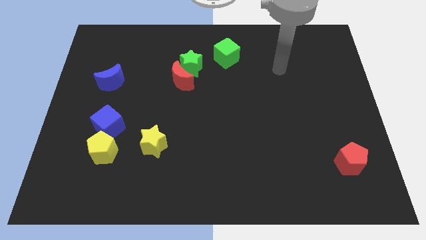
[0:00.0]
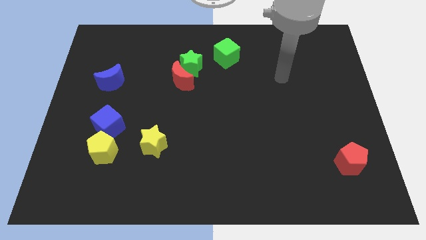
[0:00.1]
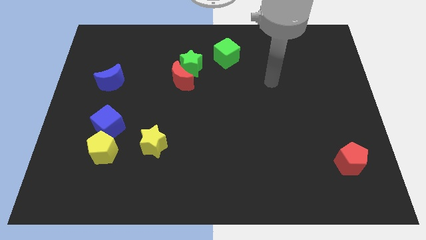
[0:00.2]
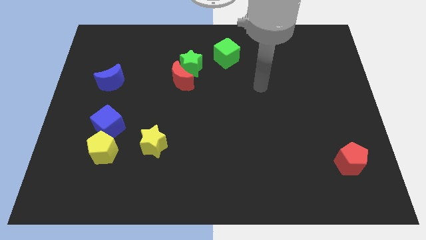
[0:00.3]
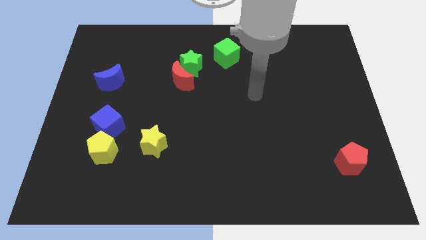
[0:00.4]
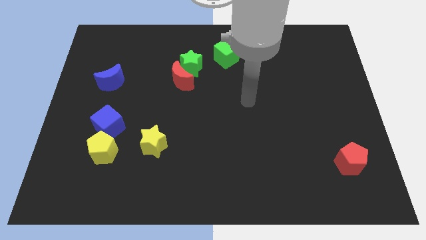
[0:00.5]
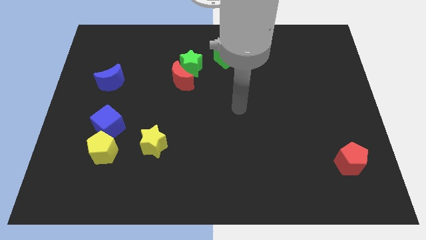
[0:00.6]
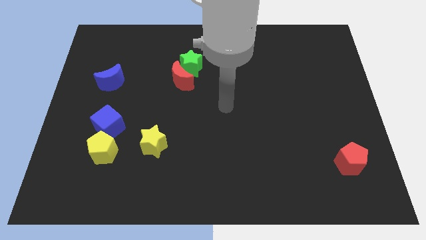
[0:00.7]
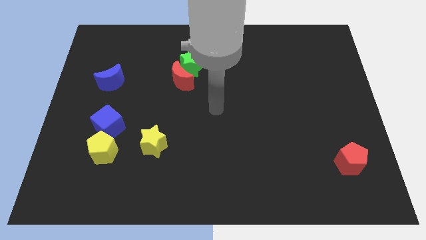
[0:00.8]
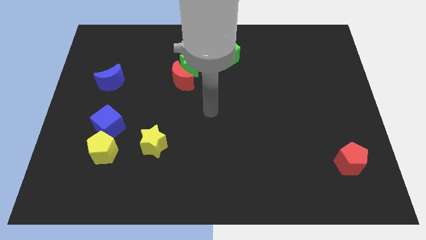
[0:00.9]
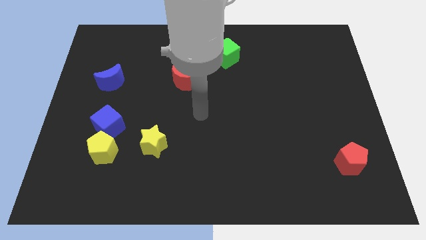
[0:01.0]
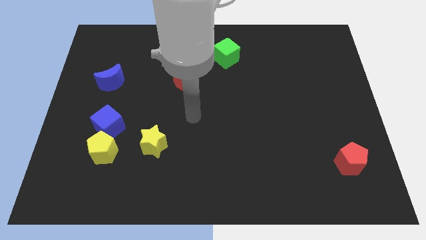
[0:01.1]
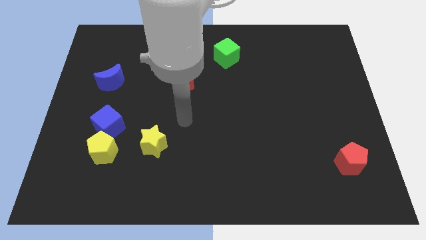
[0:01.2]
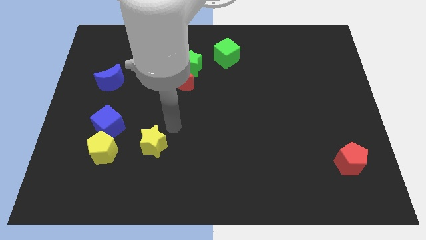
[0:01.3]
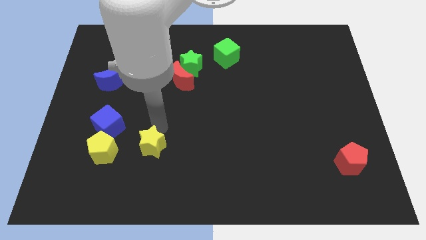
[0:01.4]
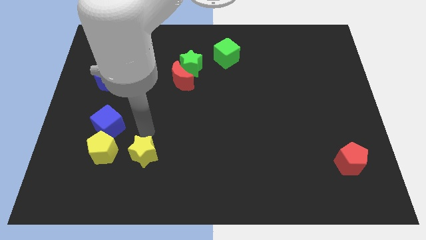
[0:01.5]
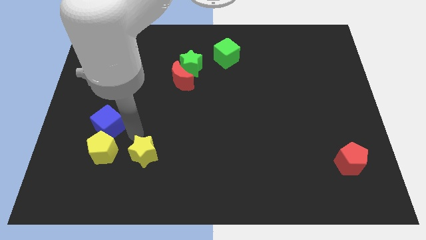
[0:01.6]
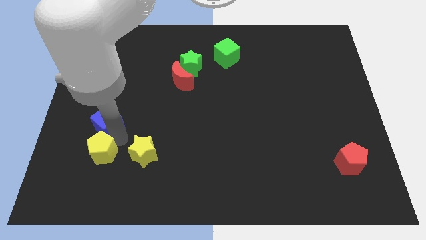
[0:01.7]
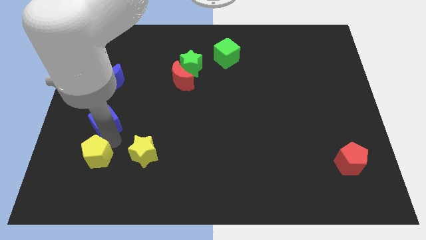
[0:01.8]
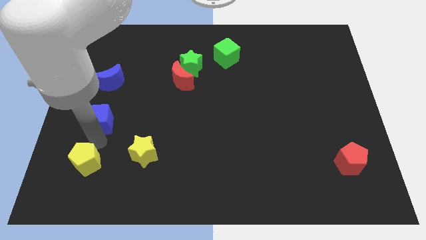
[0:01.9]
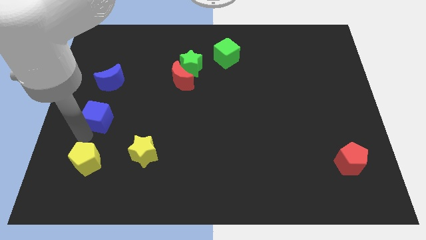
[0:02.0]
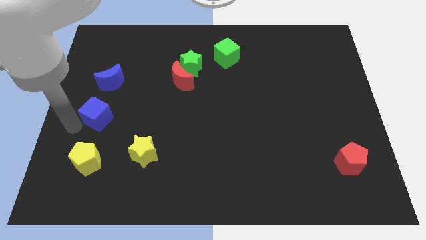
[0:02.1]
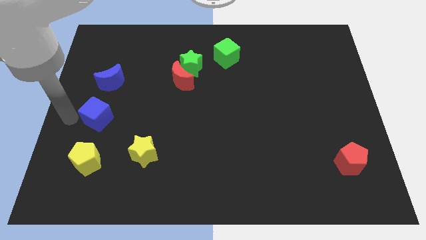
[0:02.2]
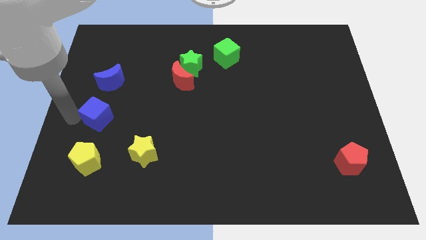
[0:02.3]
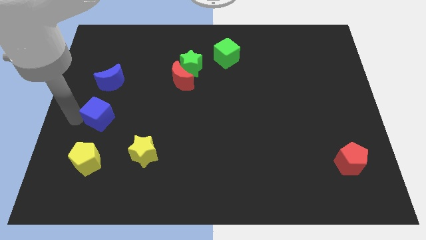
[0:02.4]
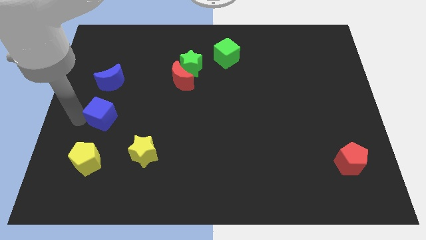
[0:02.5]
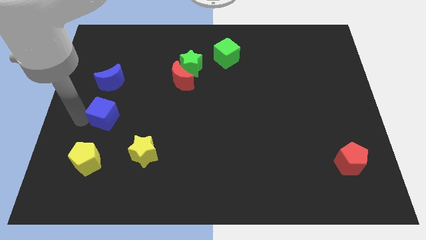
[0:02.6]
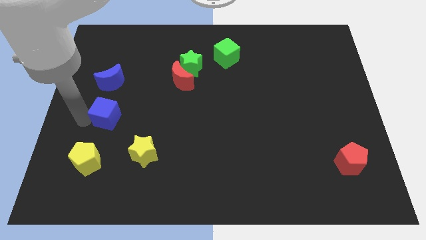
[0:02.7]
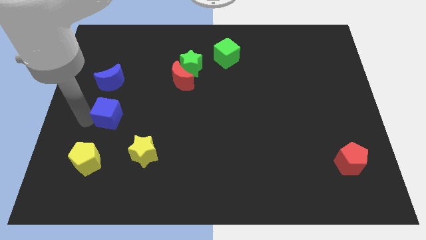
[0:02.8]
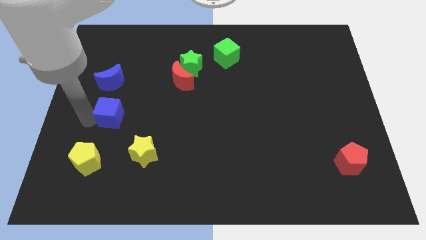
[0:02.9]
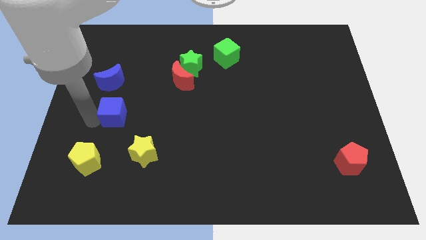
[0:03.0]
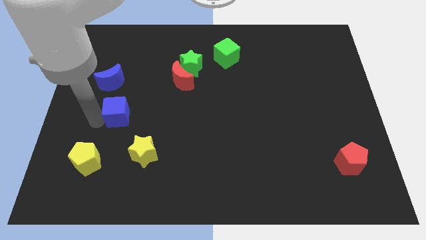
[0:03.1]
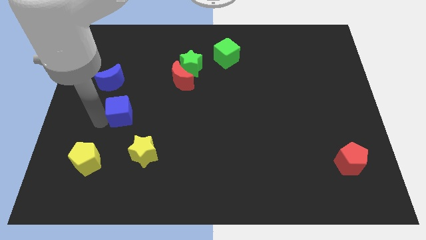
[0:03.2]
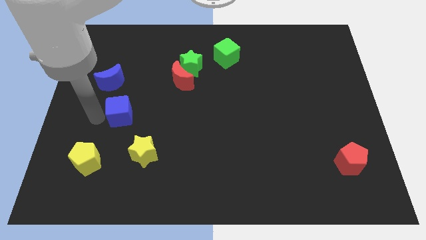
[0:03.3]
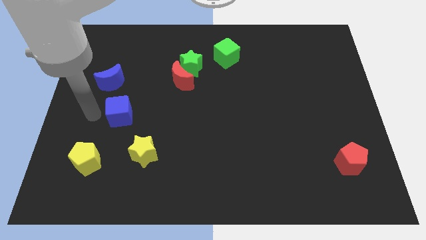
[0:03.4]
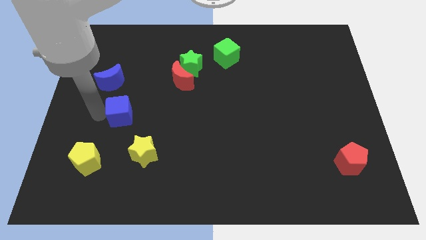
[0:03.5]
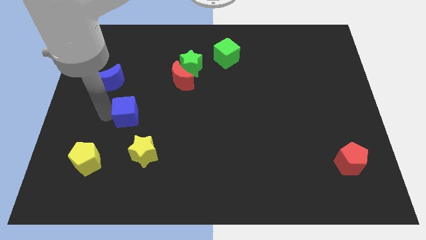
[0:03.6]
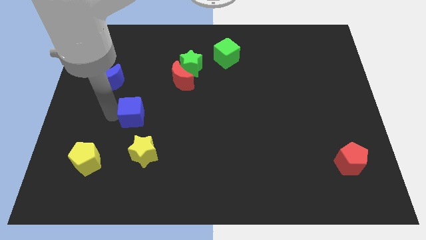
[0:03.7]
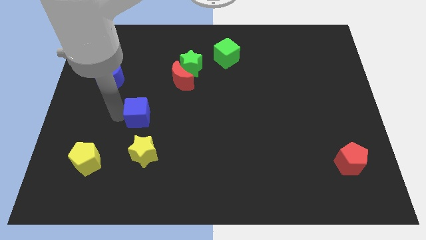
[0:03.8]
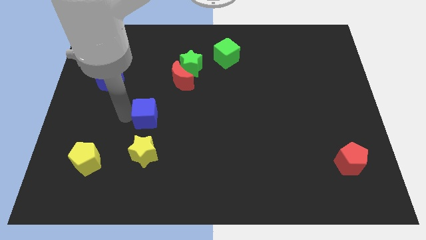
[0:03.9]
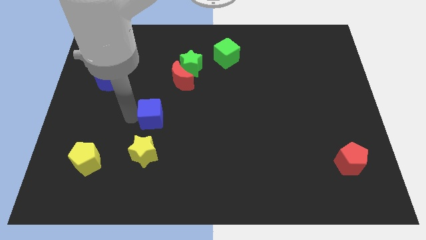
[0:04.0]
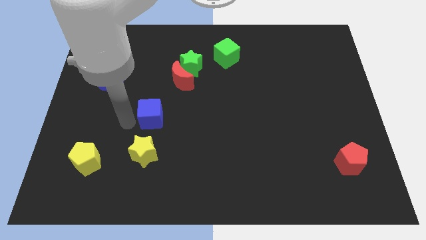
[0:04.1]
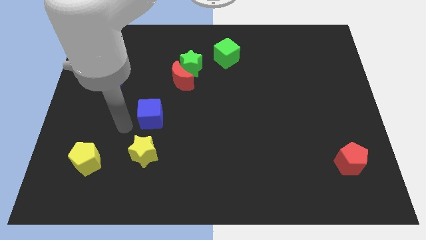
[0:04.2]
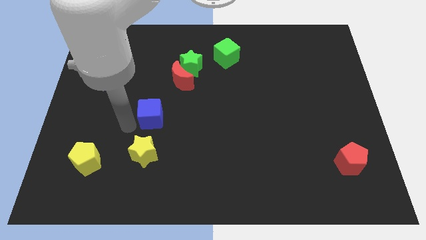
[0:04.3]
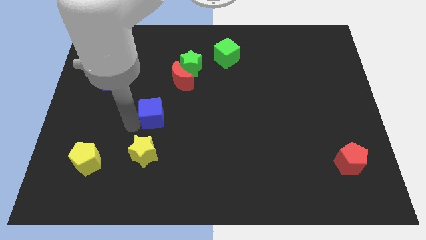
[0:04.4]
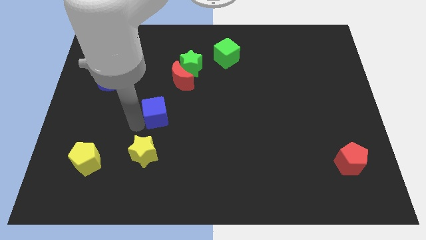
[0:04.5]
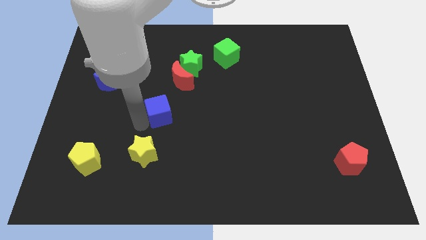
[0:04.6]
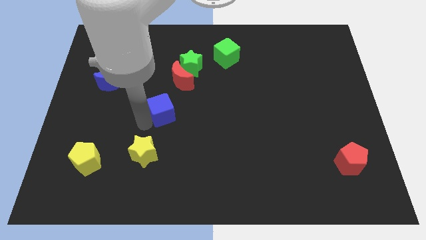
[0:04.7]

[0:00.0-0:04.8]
slide the blue cube to the middle of the board

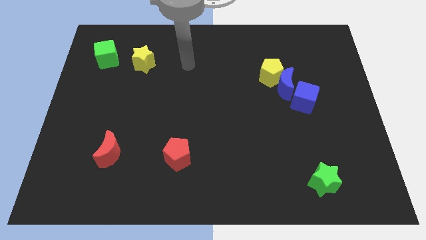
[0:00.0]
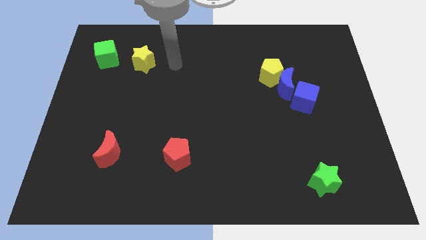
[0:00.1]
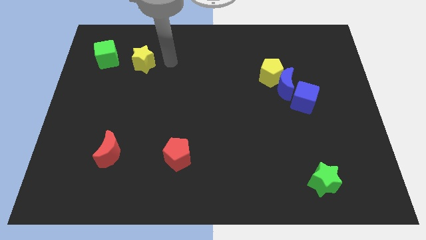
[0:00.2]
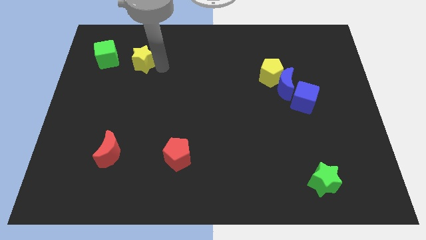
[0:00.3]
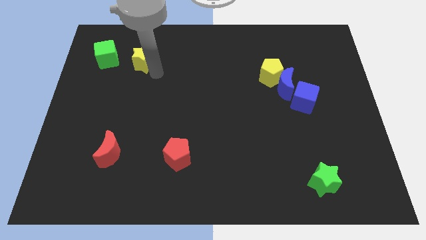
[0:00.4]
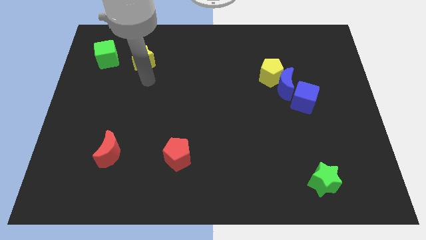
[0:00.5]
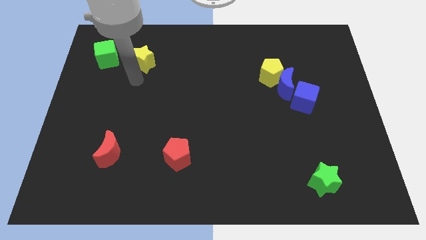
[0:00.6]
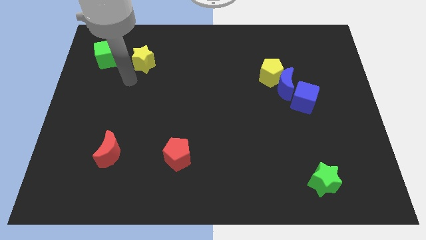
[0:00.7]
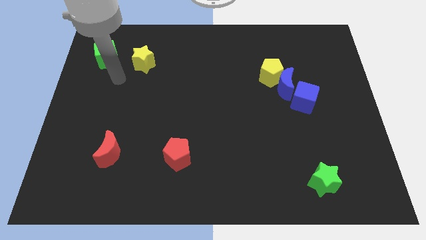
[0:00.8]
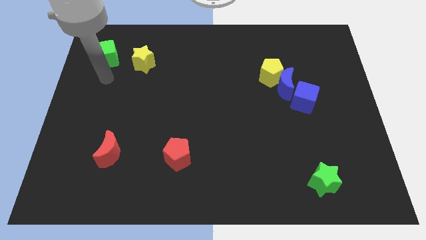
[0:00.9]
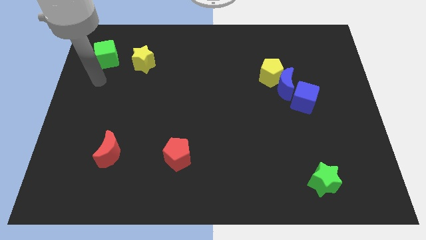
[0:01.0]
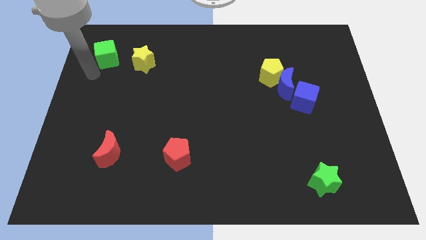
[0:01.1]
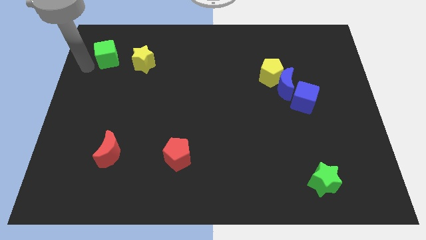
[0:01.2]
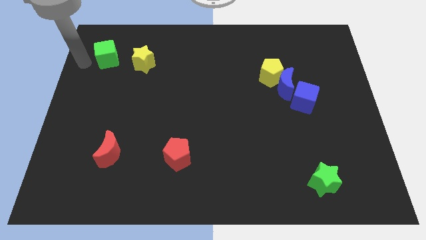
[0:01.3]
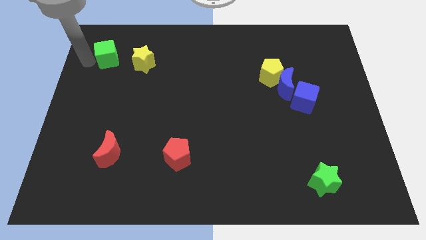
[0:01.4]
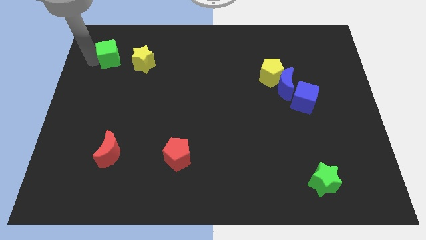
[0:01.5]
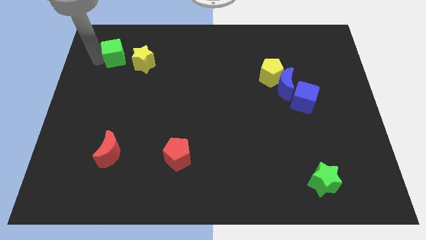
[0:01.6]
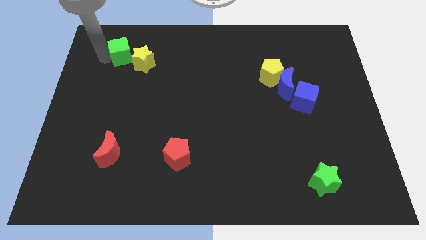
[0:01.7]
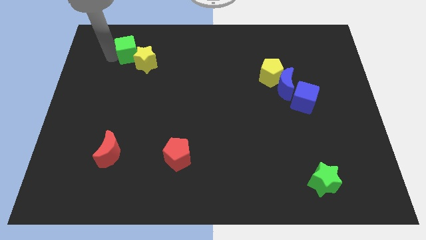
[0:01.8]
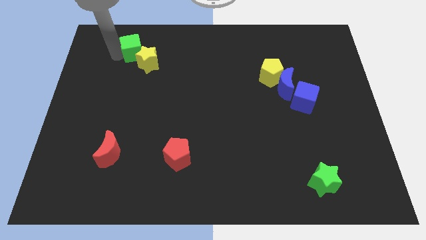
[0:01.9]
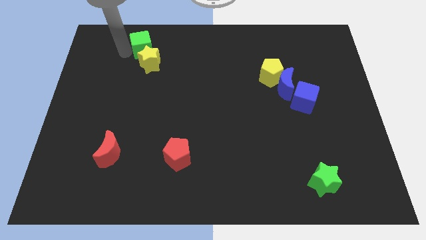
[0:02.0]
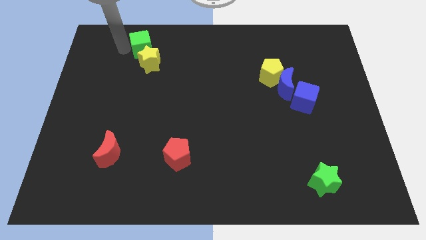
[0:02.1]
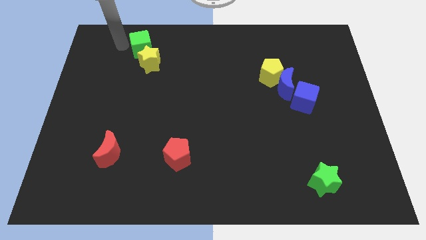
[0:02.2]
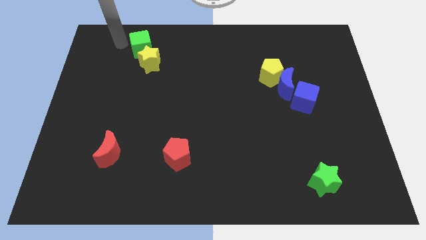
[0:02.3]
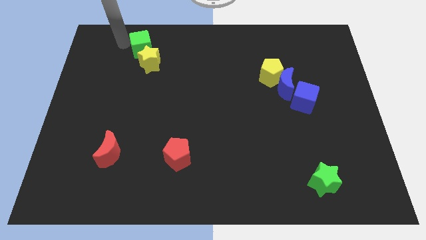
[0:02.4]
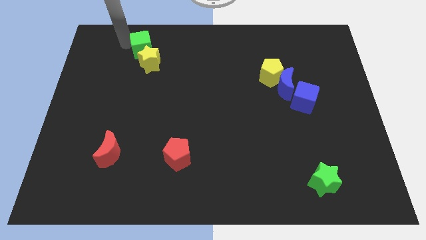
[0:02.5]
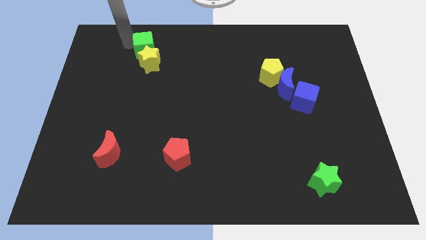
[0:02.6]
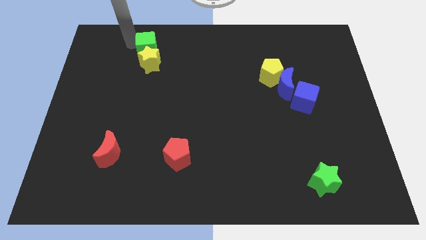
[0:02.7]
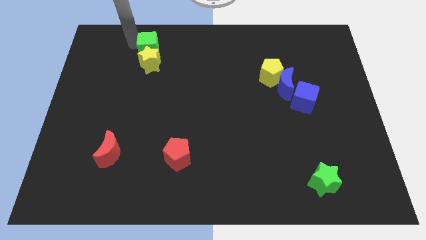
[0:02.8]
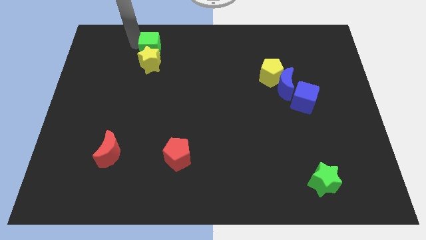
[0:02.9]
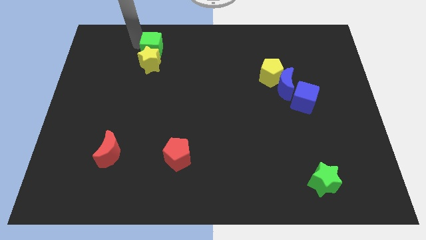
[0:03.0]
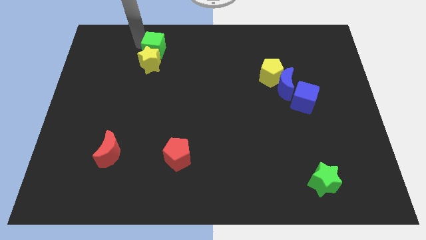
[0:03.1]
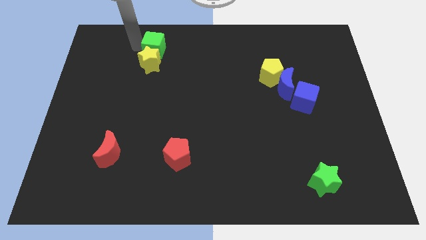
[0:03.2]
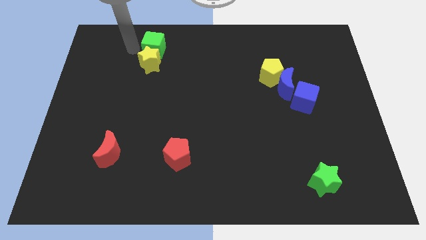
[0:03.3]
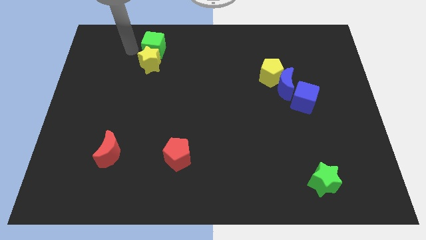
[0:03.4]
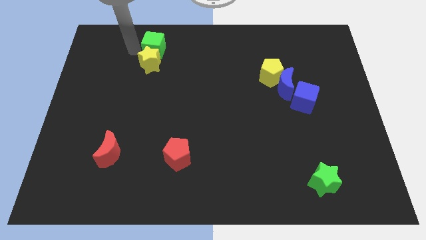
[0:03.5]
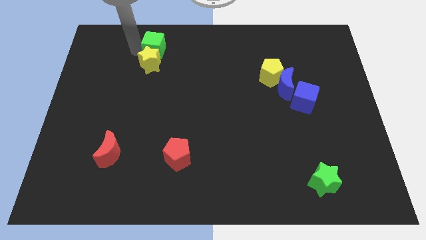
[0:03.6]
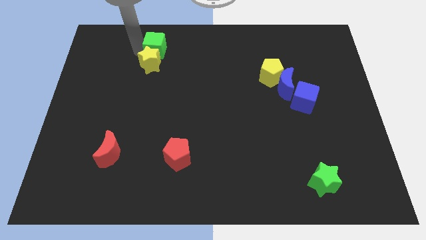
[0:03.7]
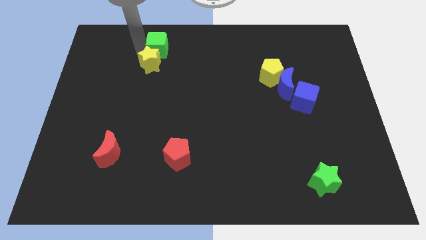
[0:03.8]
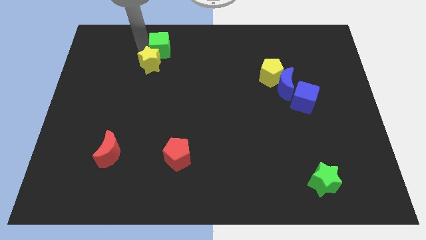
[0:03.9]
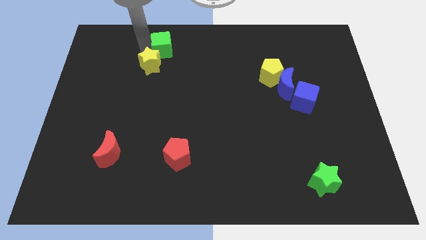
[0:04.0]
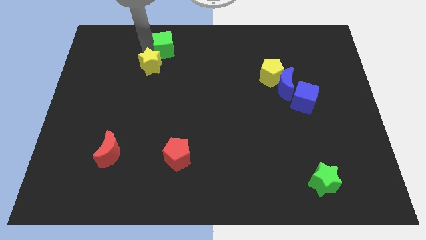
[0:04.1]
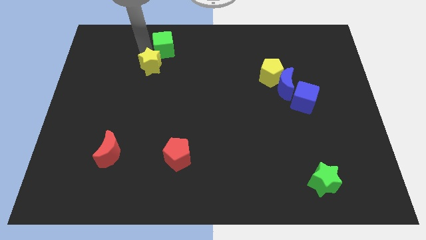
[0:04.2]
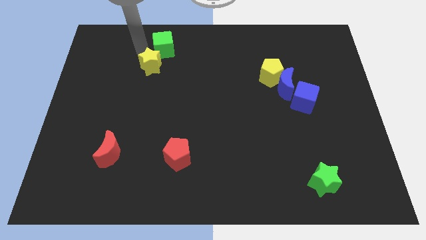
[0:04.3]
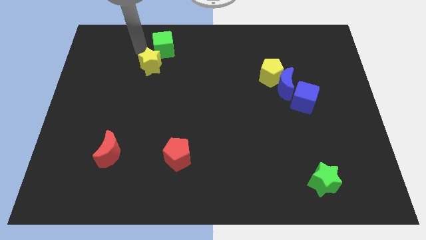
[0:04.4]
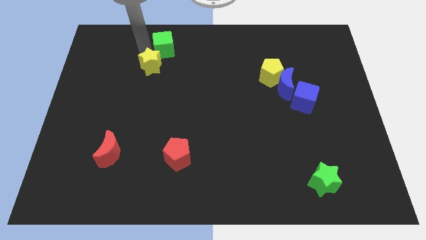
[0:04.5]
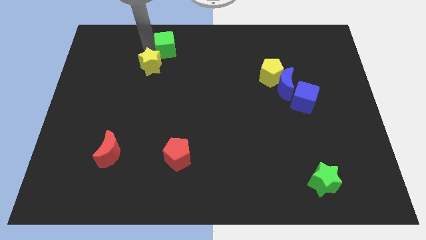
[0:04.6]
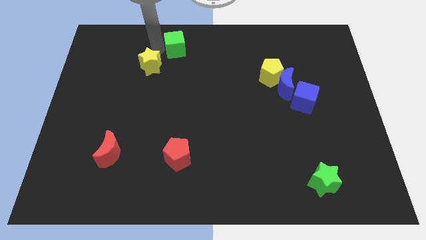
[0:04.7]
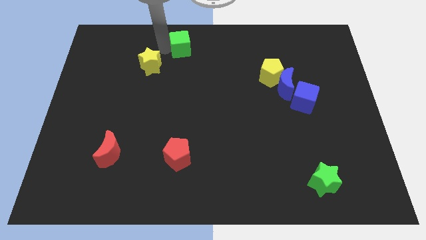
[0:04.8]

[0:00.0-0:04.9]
slide the green cube to the top side
